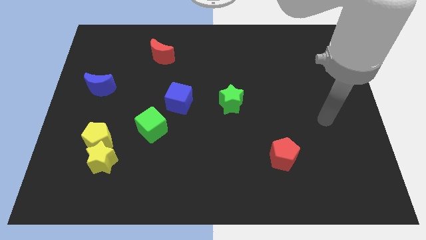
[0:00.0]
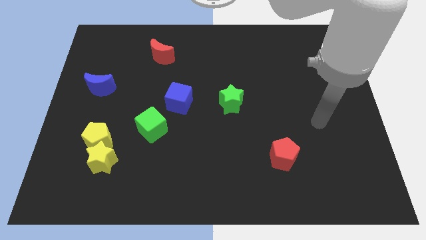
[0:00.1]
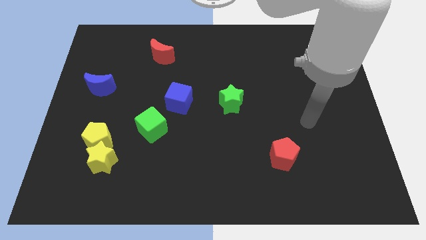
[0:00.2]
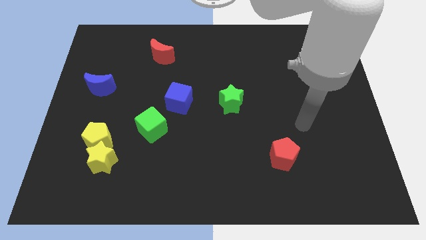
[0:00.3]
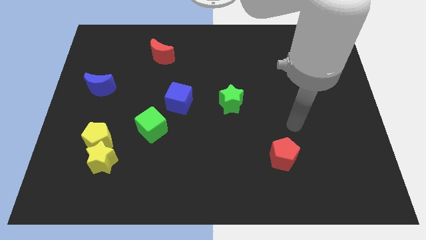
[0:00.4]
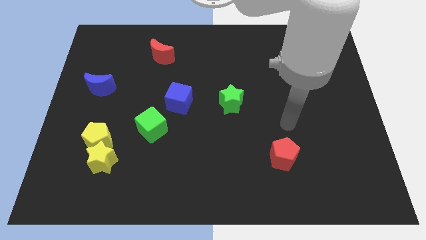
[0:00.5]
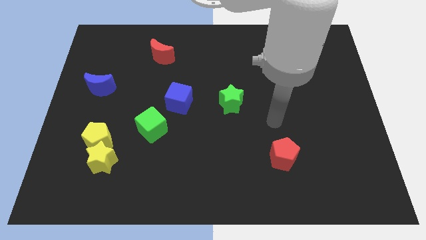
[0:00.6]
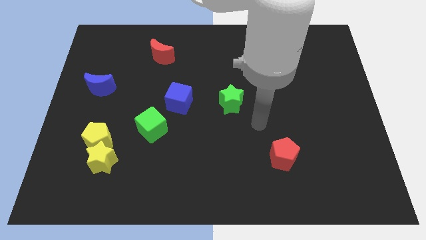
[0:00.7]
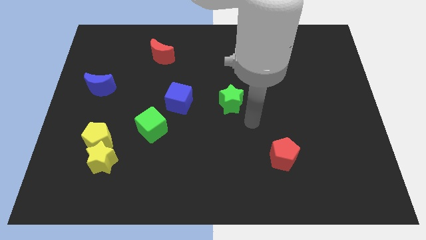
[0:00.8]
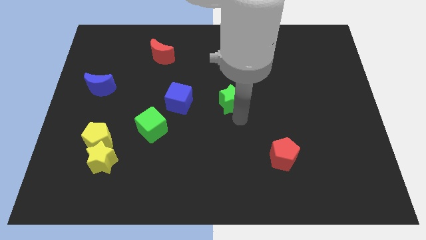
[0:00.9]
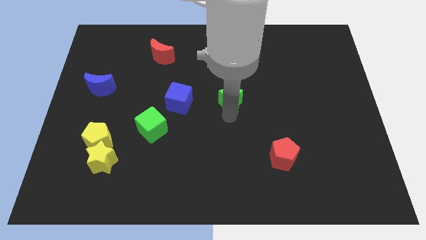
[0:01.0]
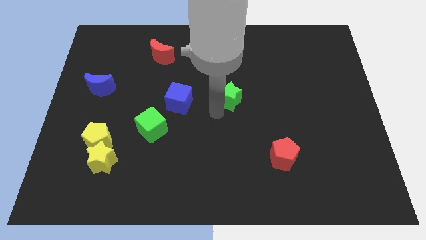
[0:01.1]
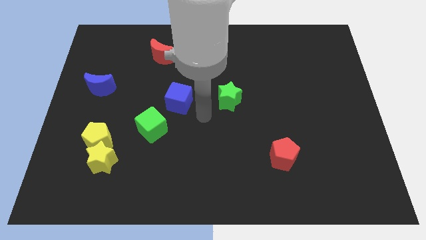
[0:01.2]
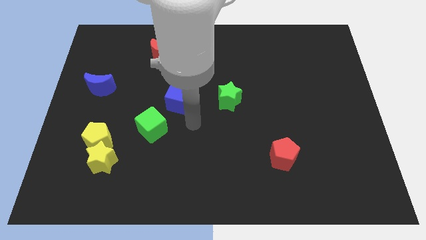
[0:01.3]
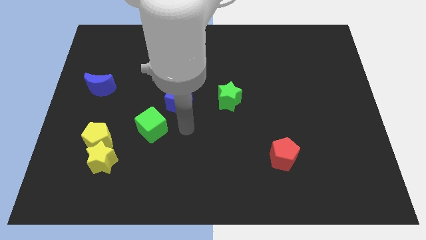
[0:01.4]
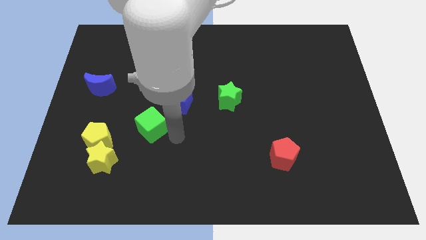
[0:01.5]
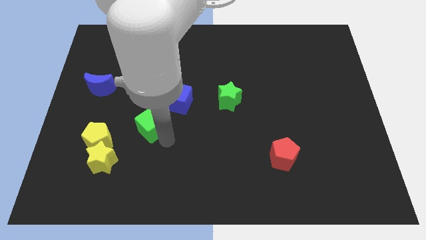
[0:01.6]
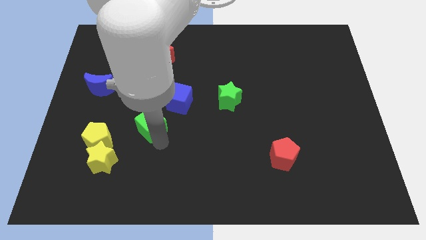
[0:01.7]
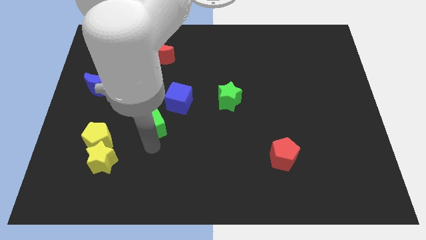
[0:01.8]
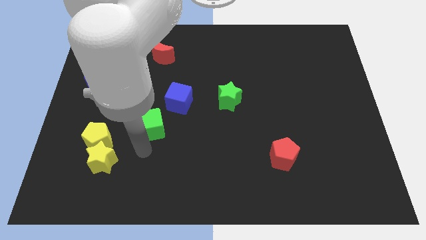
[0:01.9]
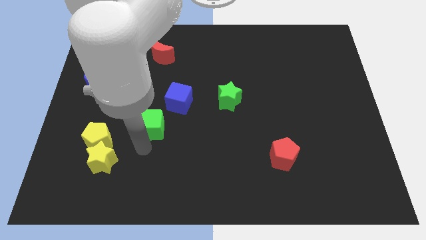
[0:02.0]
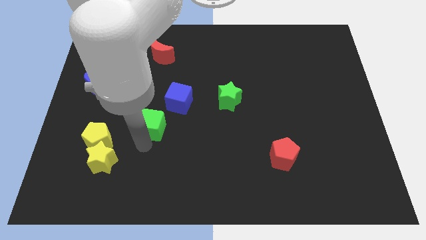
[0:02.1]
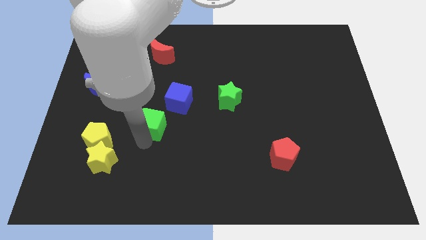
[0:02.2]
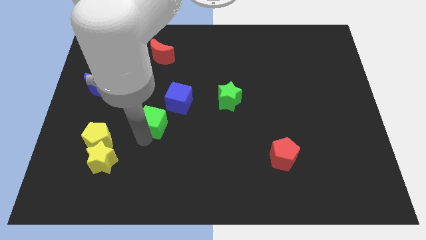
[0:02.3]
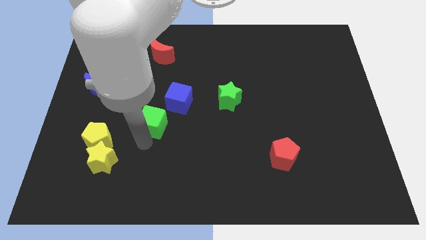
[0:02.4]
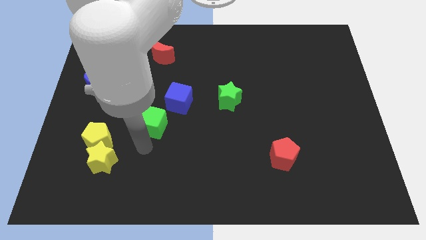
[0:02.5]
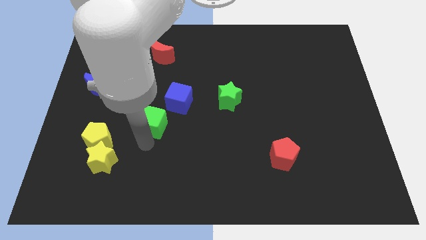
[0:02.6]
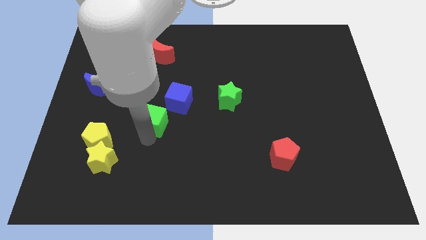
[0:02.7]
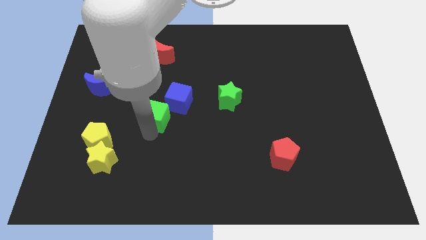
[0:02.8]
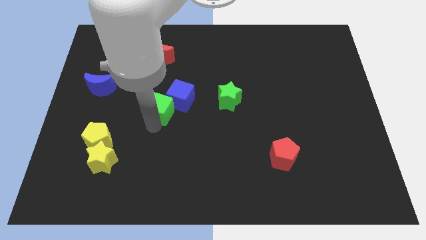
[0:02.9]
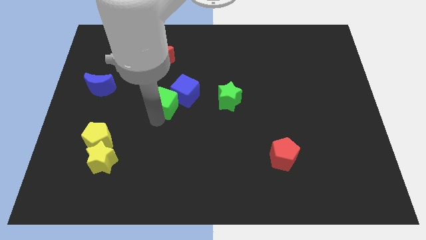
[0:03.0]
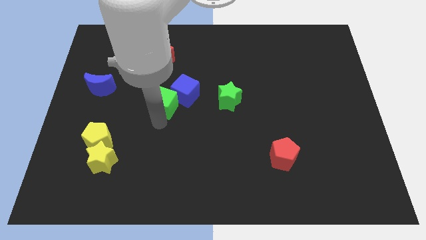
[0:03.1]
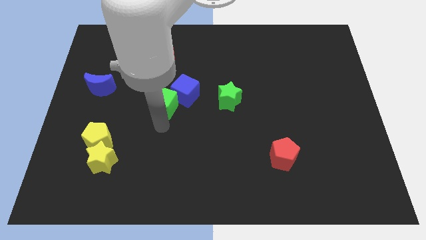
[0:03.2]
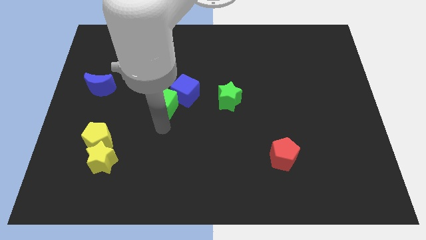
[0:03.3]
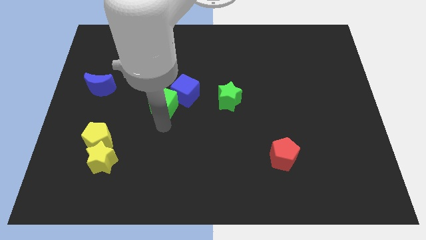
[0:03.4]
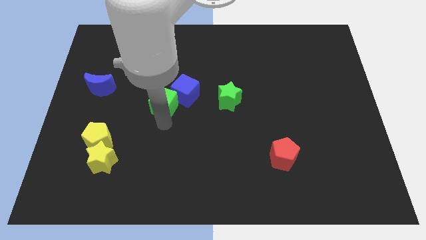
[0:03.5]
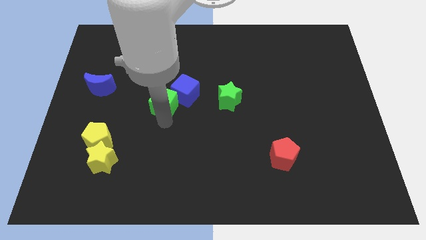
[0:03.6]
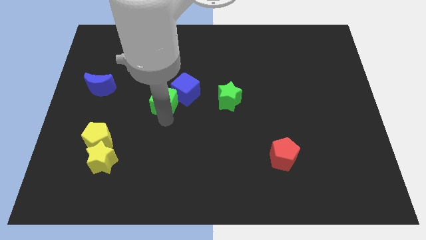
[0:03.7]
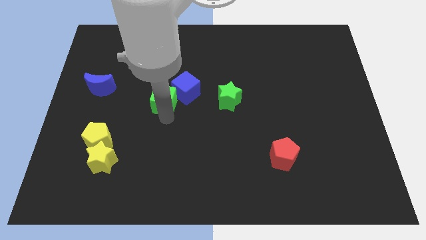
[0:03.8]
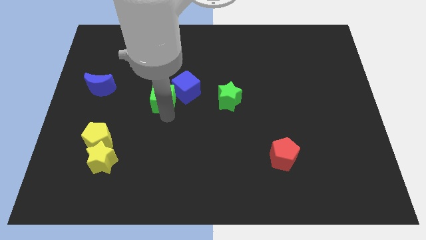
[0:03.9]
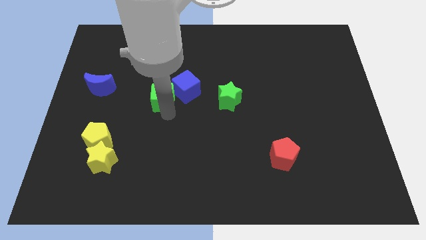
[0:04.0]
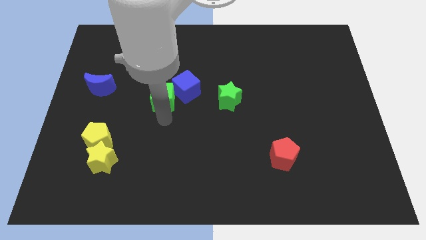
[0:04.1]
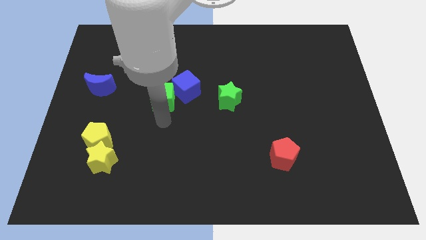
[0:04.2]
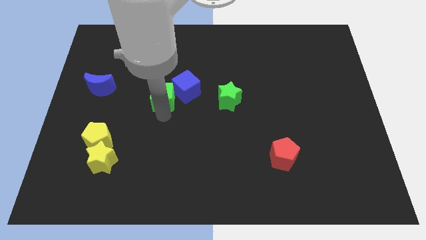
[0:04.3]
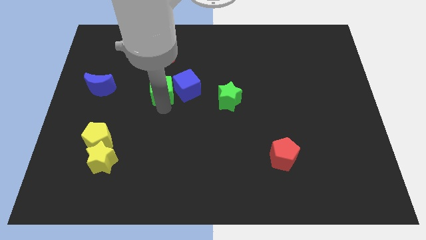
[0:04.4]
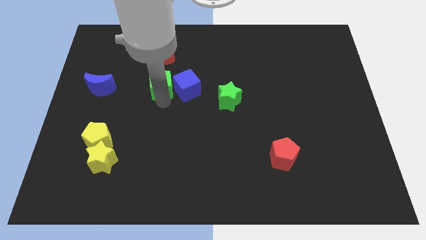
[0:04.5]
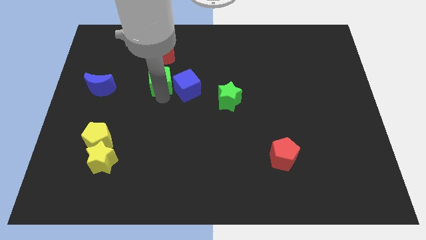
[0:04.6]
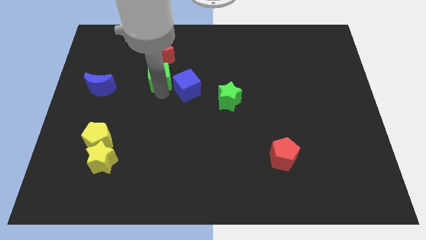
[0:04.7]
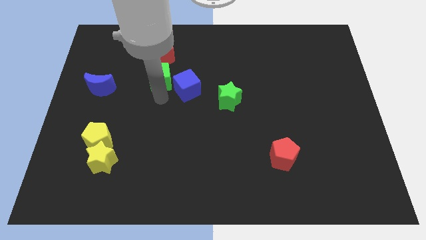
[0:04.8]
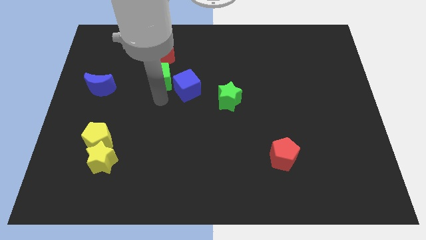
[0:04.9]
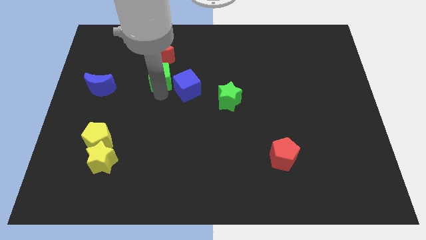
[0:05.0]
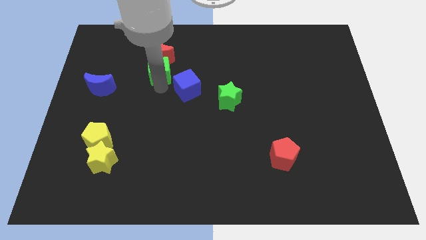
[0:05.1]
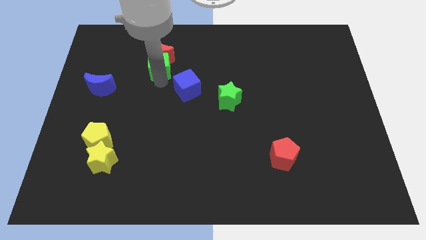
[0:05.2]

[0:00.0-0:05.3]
push the green cube close to the red moon

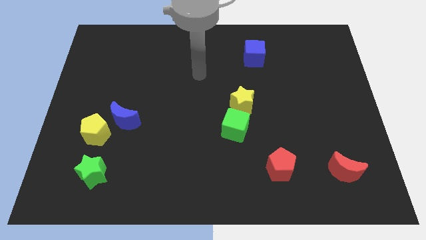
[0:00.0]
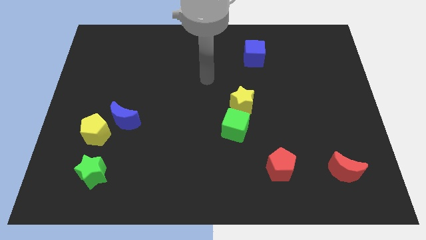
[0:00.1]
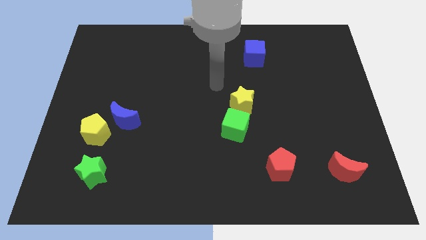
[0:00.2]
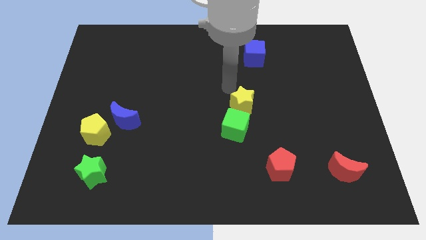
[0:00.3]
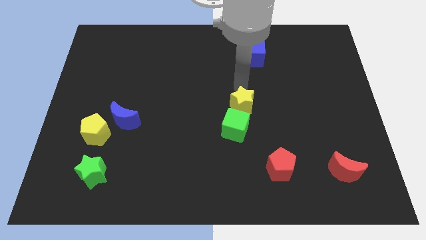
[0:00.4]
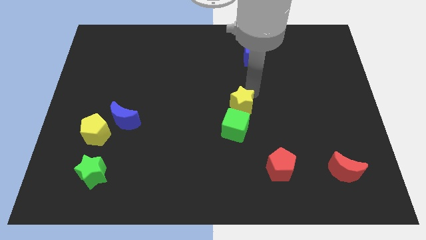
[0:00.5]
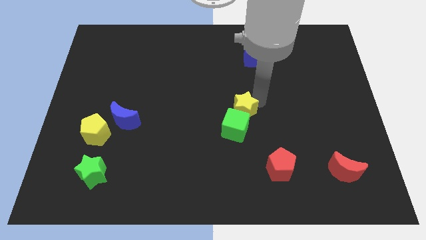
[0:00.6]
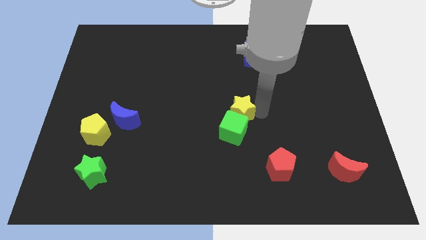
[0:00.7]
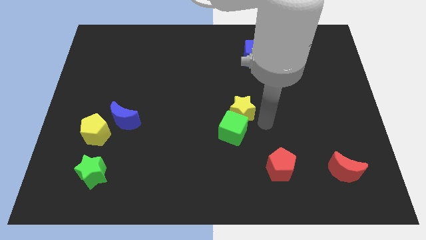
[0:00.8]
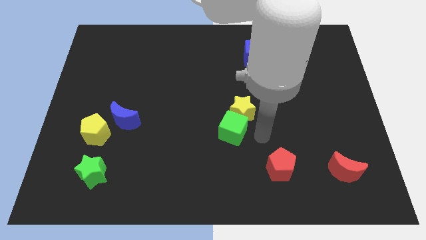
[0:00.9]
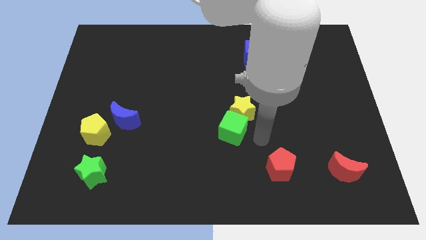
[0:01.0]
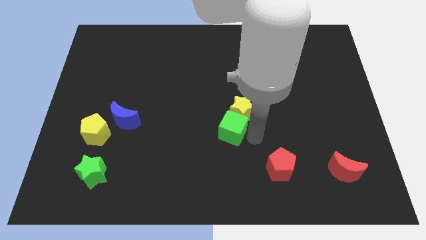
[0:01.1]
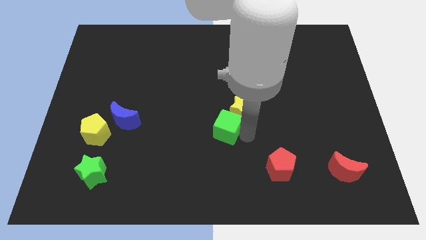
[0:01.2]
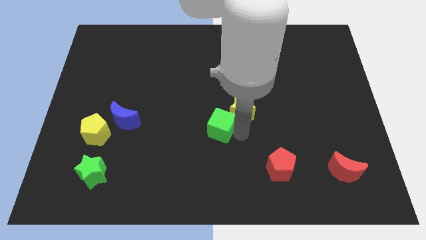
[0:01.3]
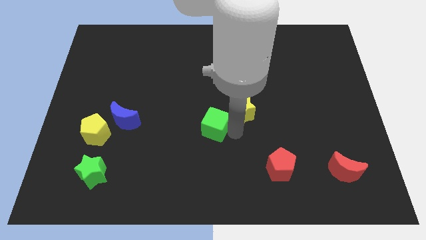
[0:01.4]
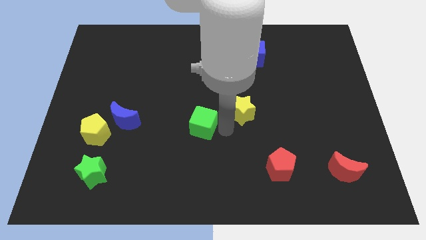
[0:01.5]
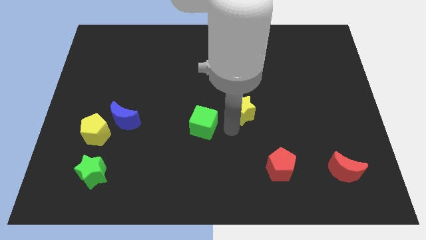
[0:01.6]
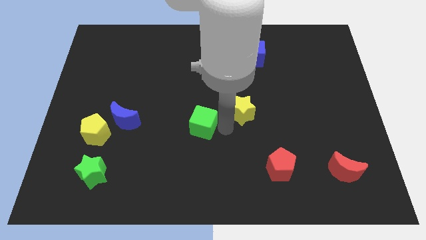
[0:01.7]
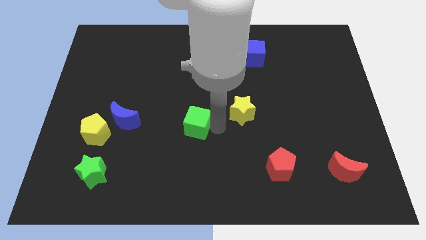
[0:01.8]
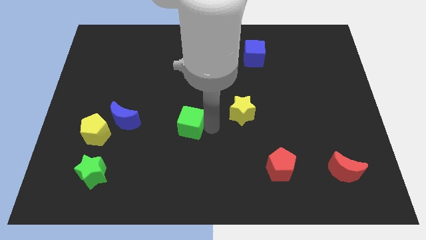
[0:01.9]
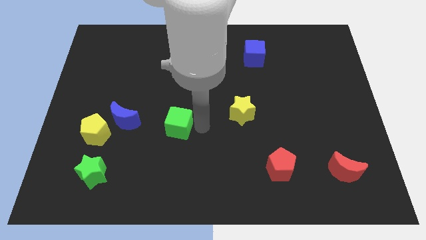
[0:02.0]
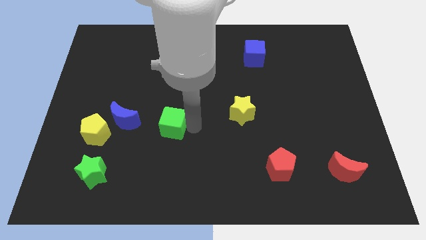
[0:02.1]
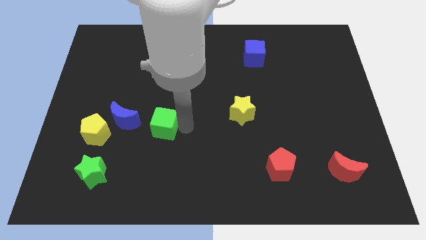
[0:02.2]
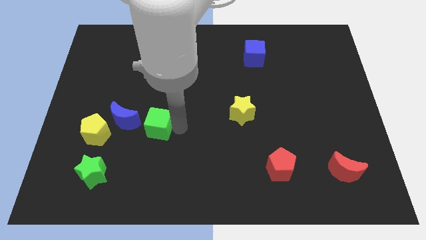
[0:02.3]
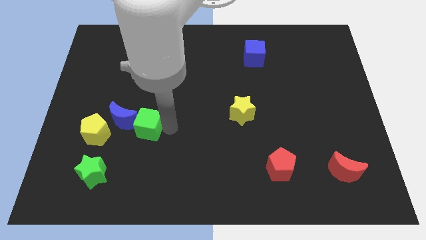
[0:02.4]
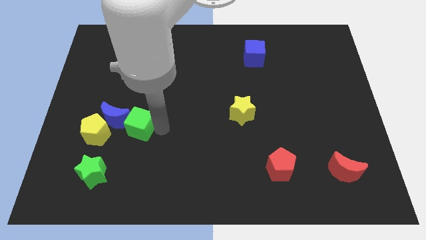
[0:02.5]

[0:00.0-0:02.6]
push the green cube to the blue moon

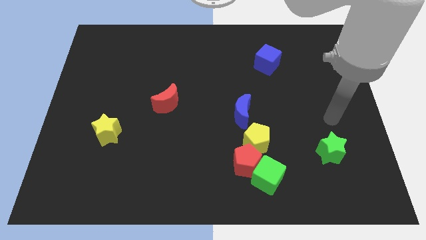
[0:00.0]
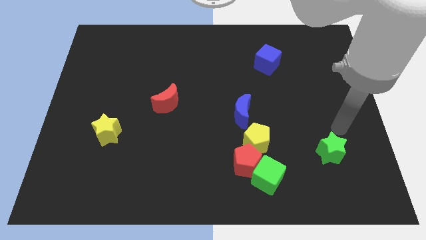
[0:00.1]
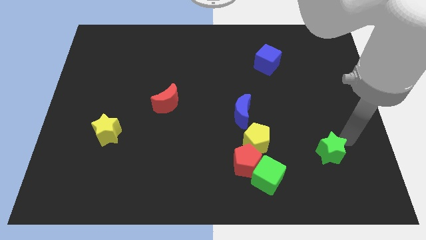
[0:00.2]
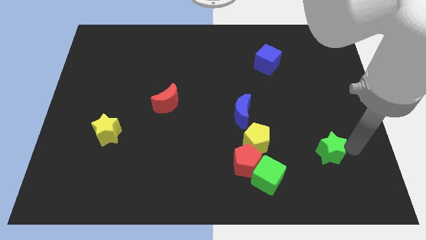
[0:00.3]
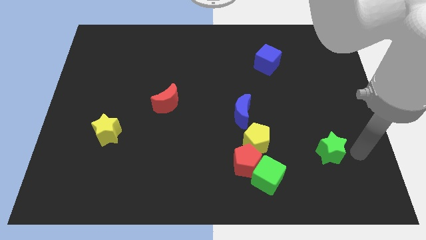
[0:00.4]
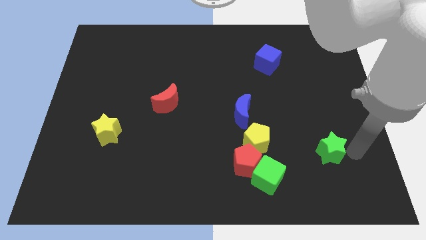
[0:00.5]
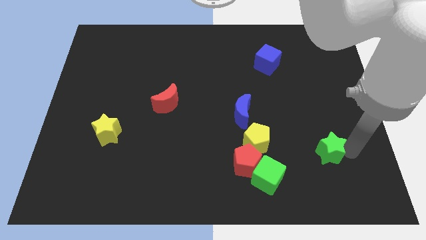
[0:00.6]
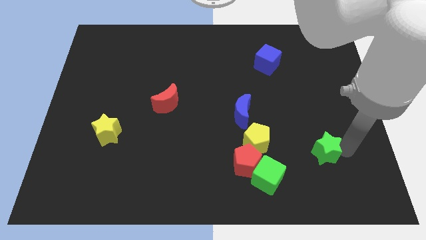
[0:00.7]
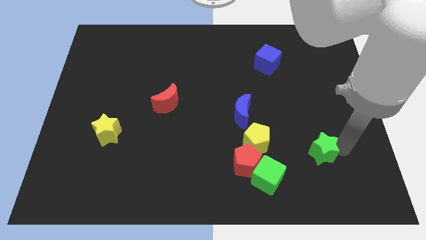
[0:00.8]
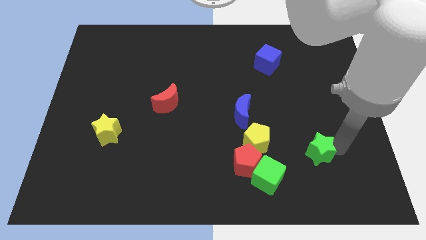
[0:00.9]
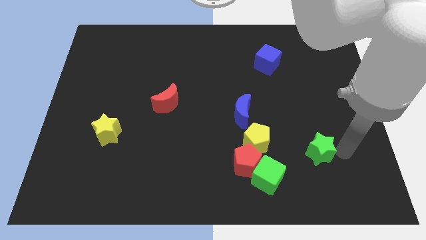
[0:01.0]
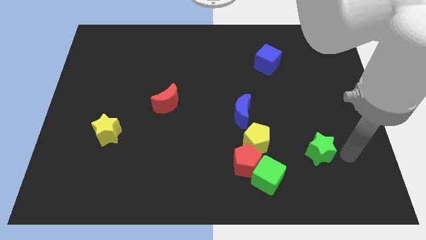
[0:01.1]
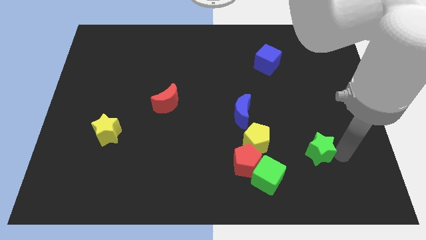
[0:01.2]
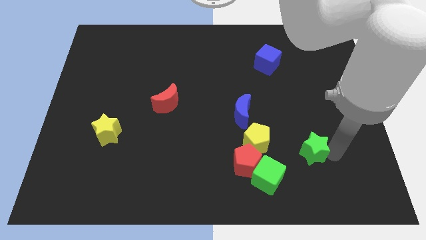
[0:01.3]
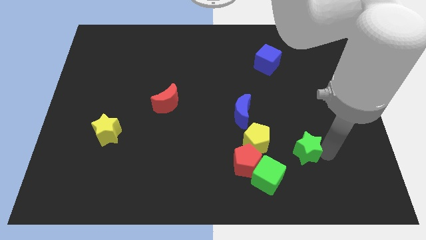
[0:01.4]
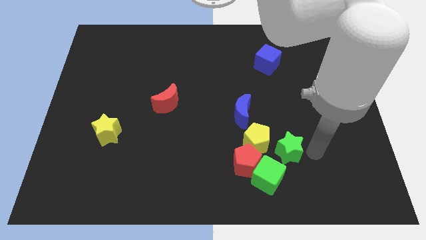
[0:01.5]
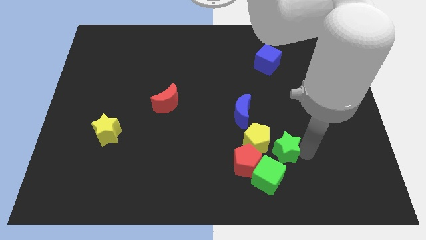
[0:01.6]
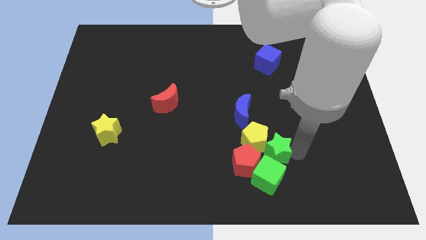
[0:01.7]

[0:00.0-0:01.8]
slide the green star towards the yellow pentagon
